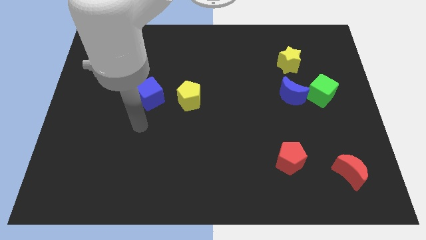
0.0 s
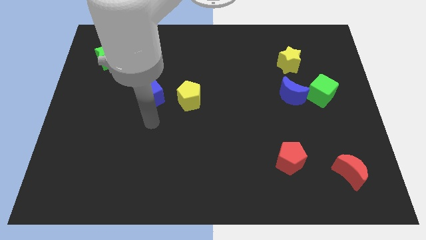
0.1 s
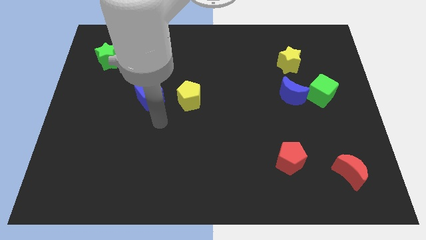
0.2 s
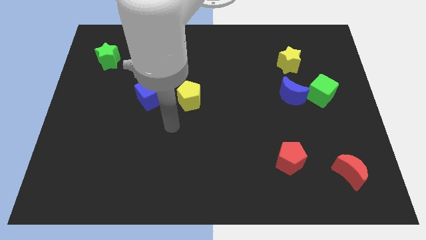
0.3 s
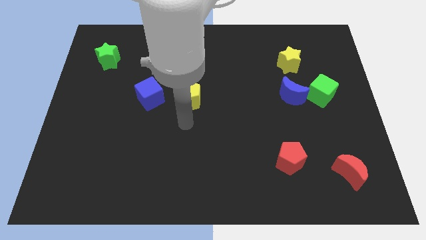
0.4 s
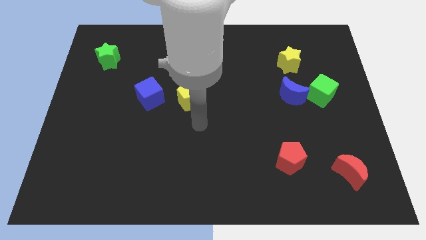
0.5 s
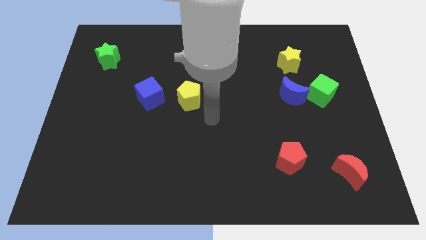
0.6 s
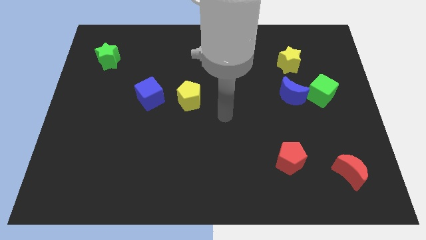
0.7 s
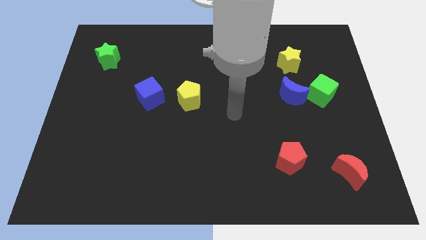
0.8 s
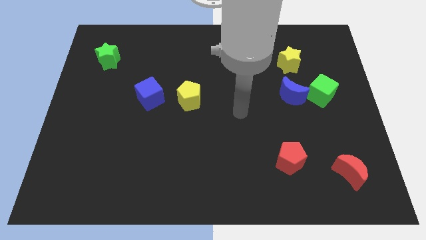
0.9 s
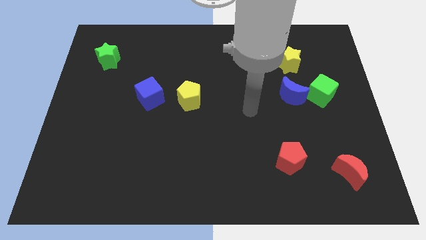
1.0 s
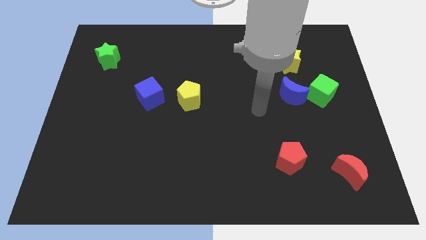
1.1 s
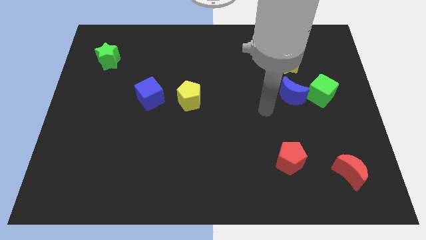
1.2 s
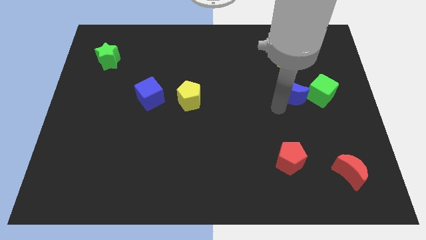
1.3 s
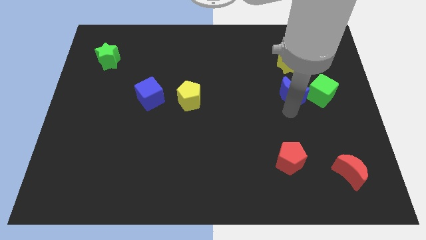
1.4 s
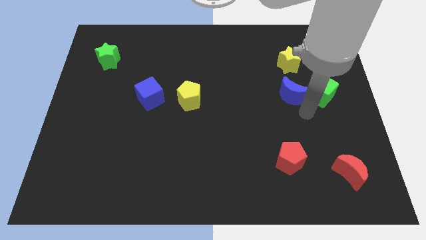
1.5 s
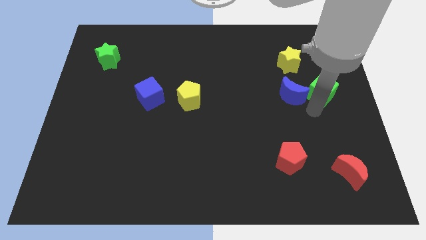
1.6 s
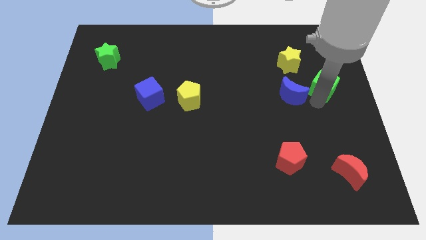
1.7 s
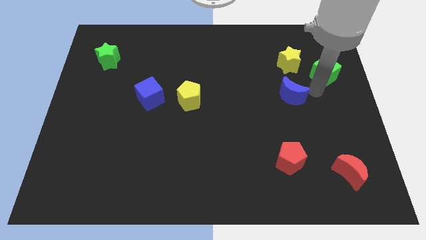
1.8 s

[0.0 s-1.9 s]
move the blue moon away from the green cube

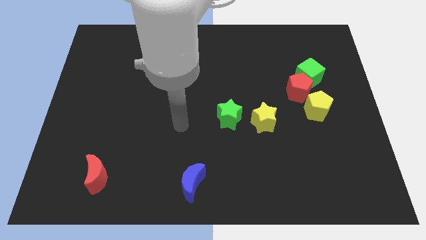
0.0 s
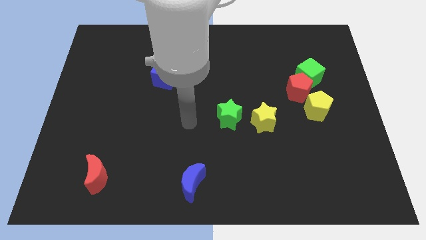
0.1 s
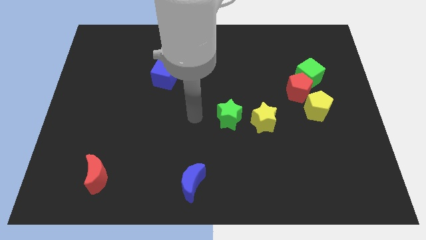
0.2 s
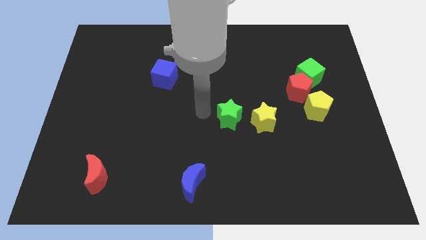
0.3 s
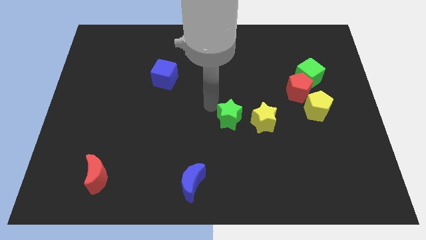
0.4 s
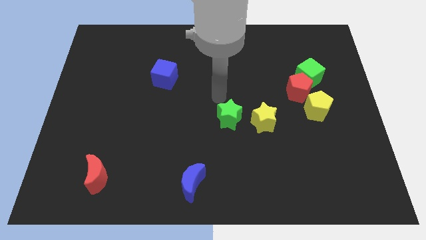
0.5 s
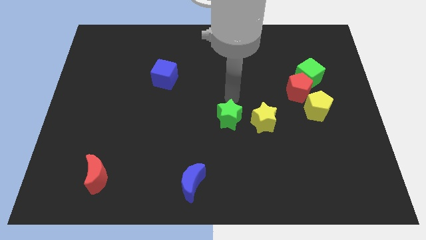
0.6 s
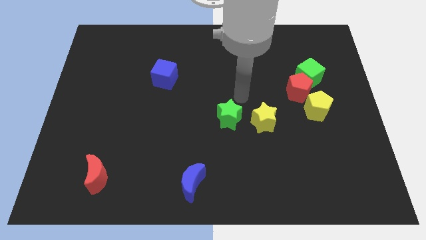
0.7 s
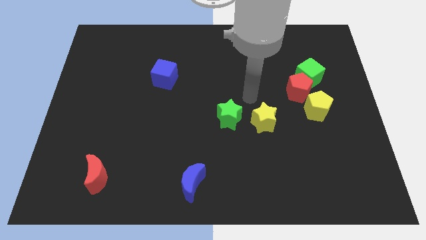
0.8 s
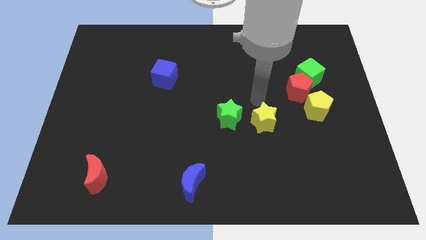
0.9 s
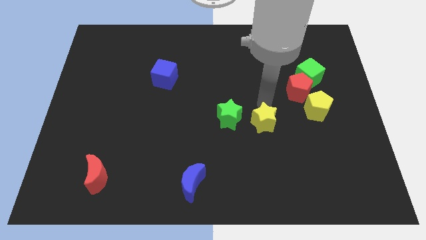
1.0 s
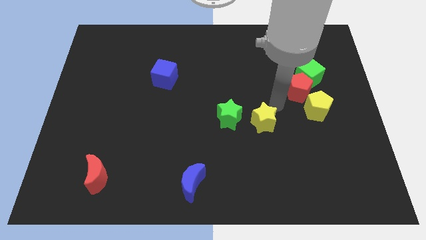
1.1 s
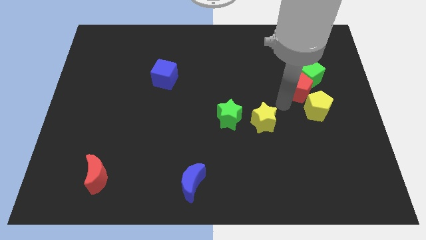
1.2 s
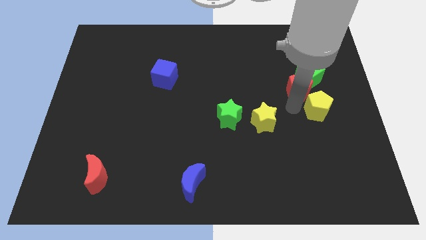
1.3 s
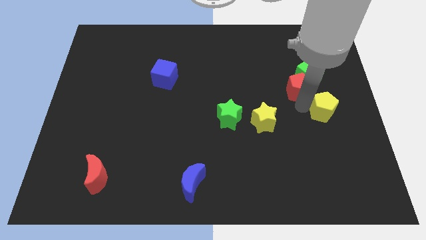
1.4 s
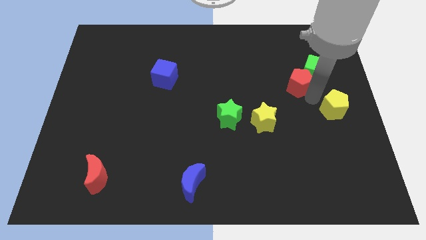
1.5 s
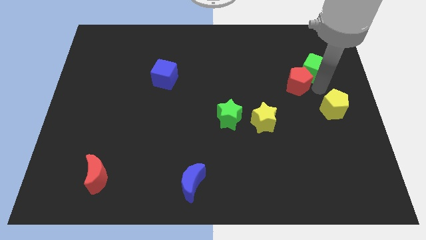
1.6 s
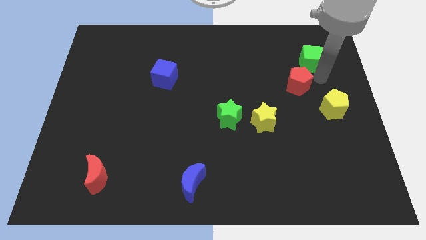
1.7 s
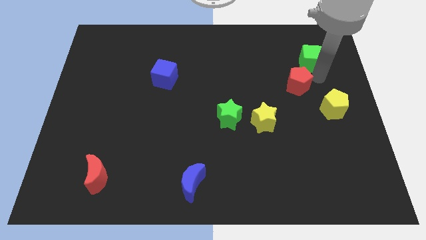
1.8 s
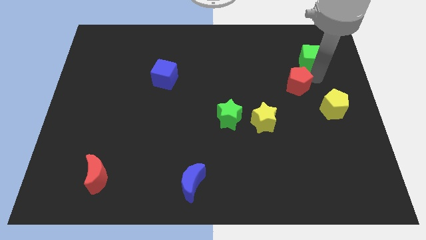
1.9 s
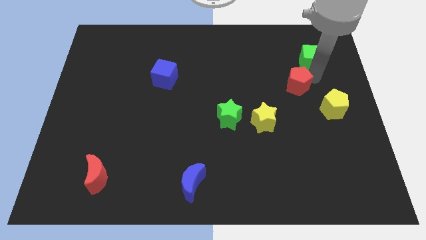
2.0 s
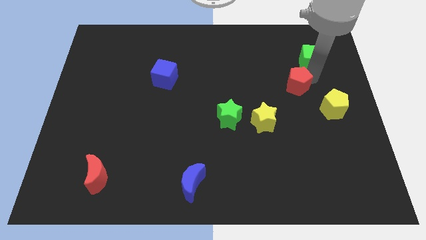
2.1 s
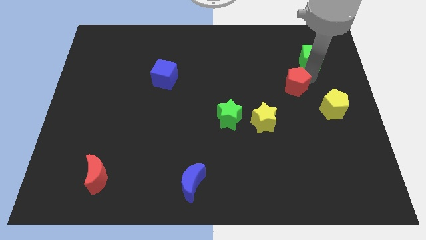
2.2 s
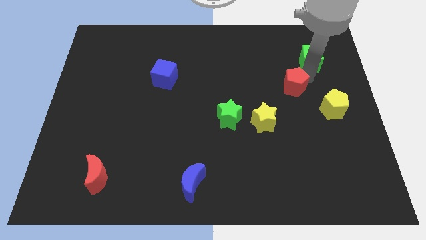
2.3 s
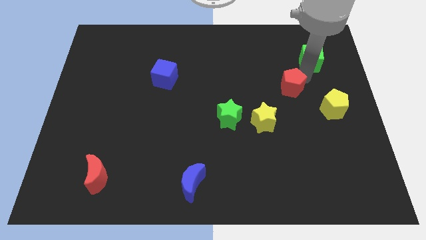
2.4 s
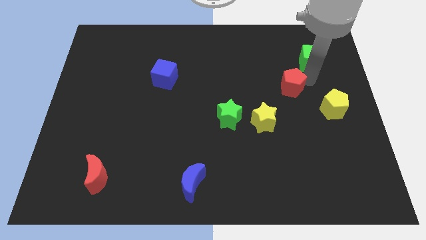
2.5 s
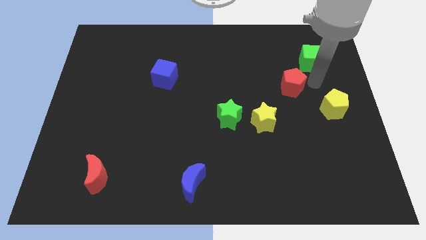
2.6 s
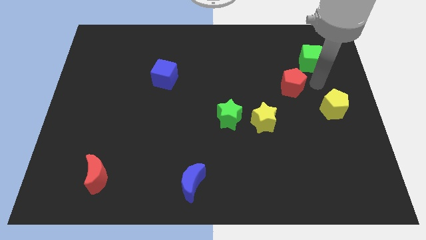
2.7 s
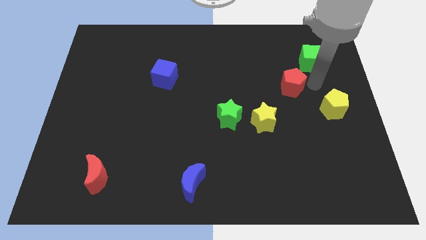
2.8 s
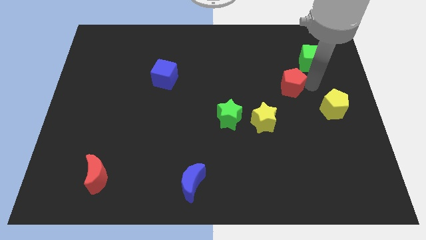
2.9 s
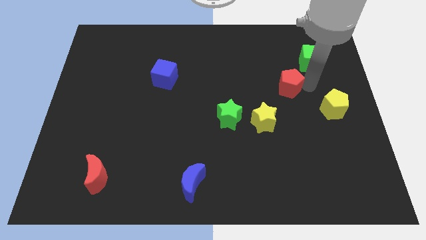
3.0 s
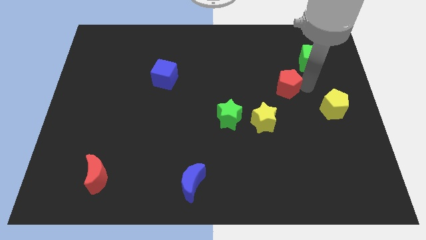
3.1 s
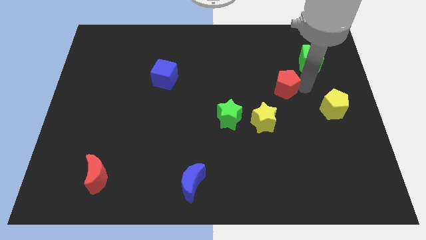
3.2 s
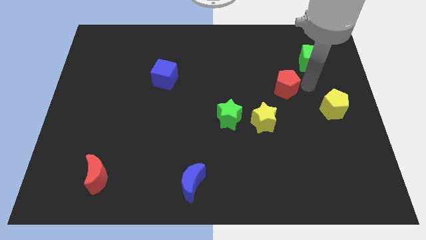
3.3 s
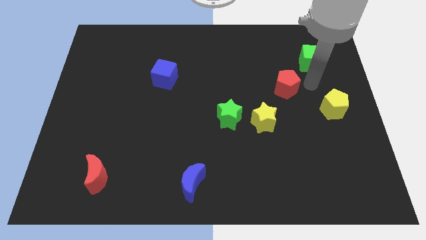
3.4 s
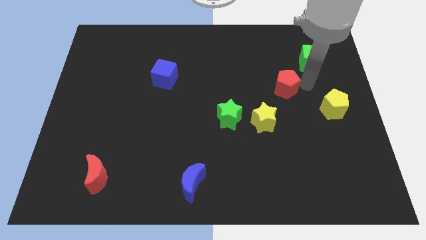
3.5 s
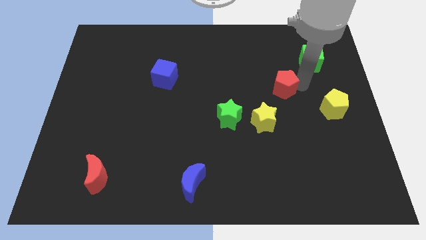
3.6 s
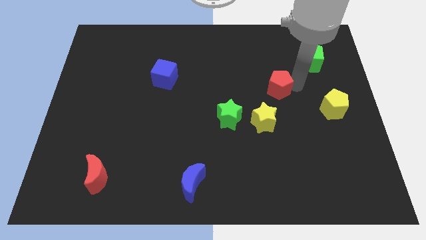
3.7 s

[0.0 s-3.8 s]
separate the red pentagon from the green cube and yellow pentagon

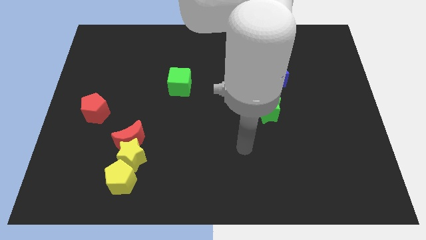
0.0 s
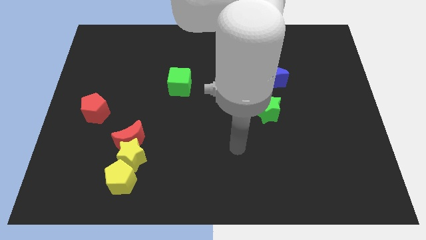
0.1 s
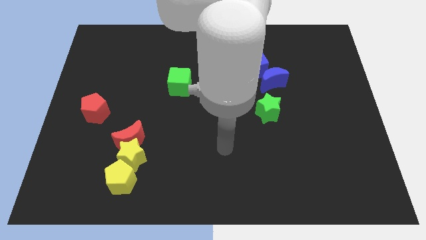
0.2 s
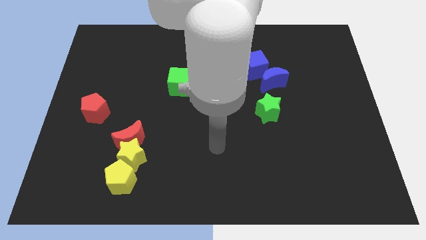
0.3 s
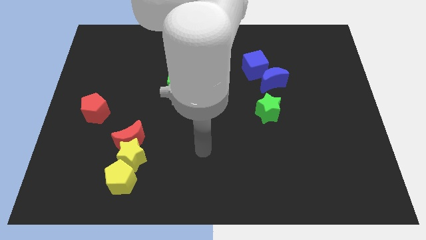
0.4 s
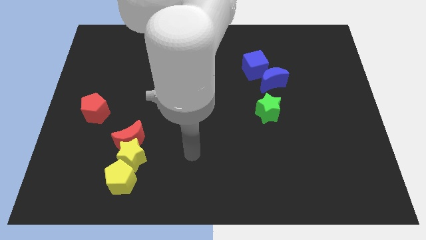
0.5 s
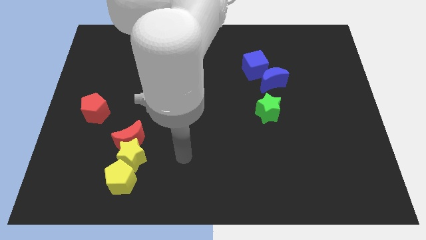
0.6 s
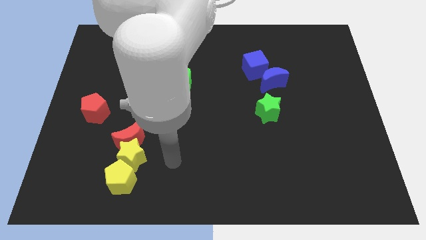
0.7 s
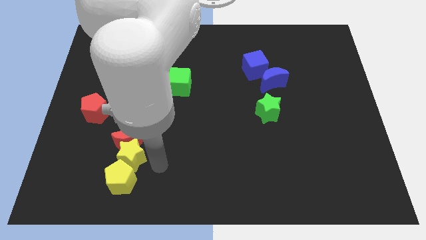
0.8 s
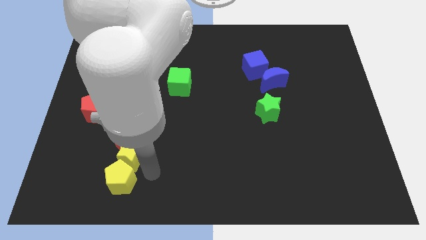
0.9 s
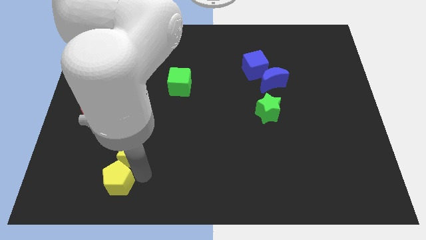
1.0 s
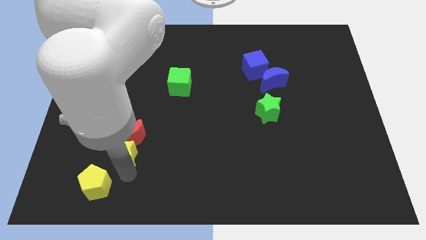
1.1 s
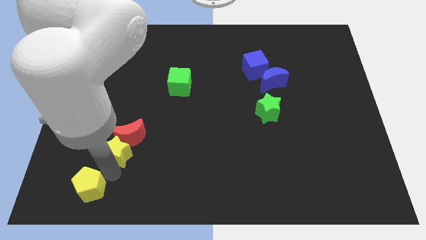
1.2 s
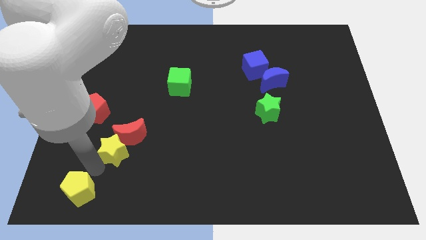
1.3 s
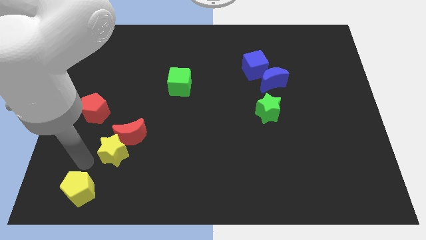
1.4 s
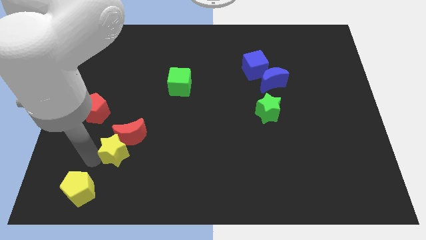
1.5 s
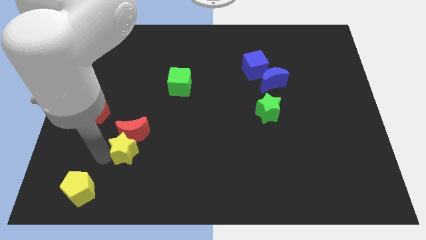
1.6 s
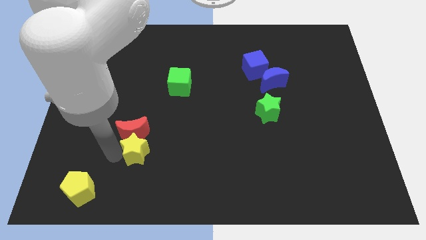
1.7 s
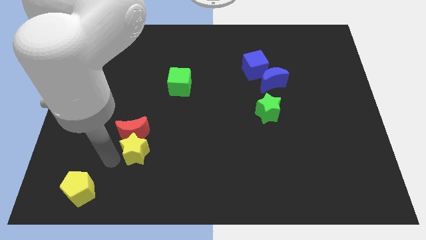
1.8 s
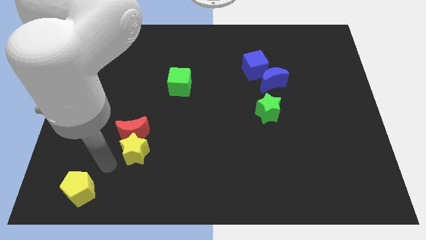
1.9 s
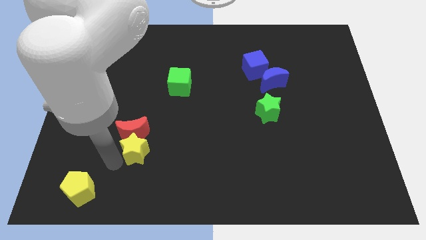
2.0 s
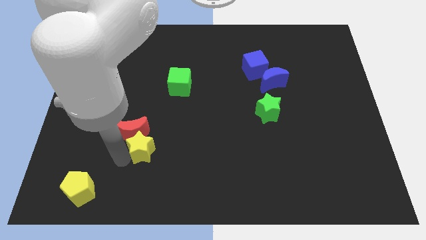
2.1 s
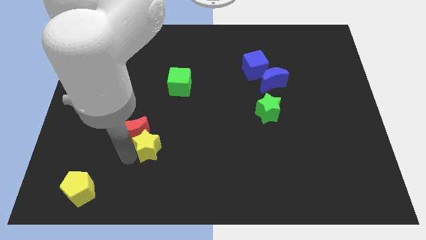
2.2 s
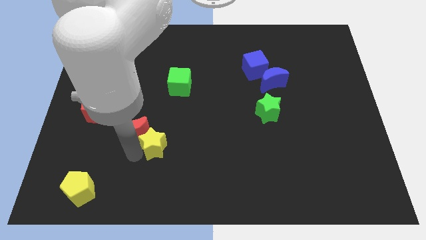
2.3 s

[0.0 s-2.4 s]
separate the yellow star from the red moon and yellow pentagon

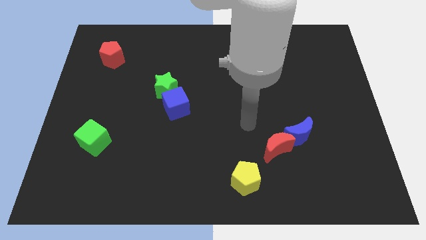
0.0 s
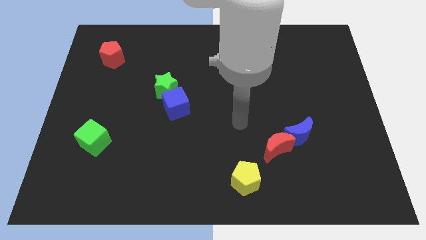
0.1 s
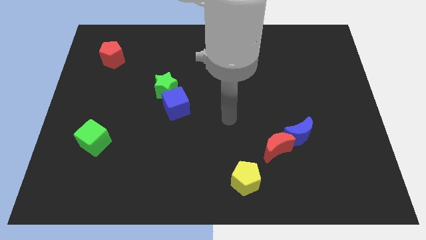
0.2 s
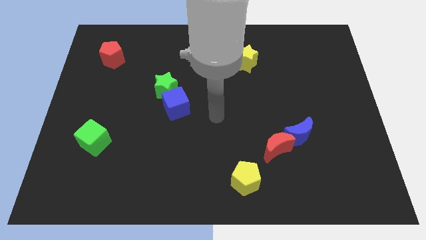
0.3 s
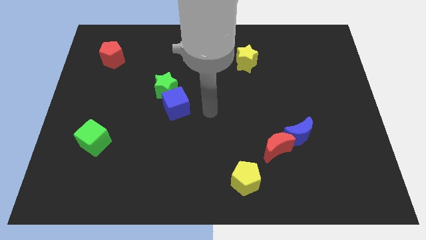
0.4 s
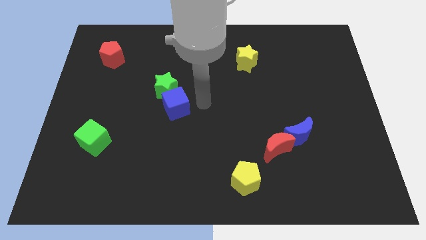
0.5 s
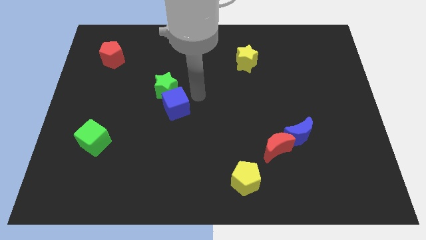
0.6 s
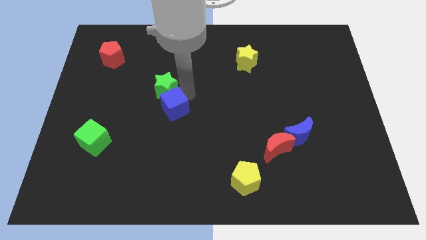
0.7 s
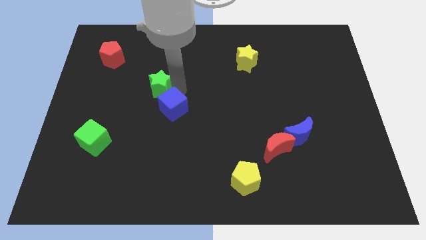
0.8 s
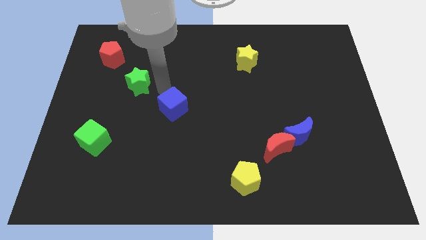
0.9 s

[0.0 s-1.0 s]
pull the blue cube apart from the green star

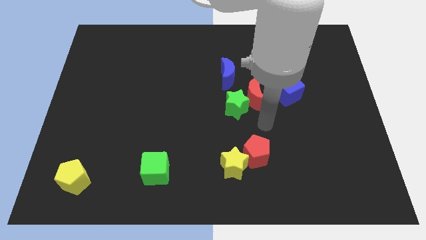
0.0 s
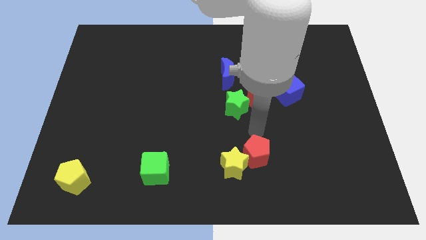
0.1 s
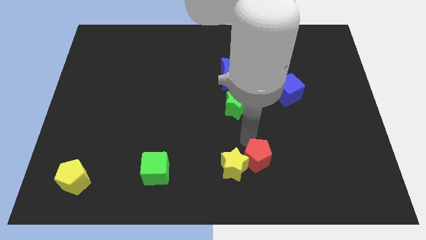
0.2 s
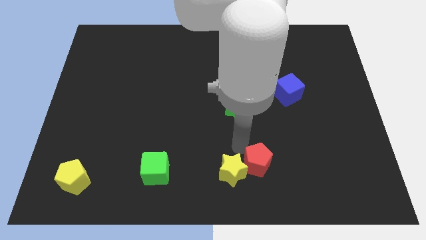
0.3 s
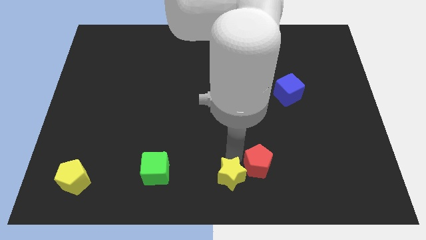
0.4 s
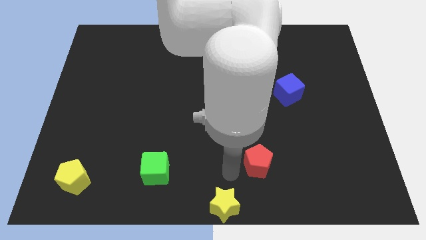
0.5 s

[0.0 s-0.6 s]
pull the red pentagon apart from the yellow star
